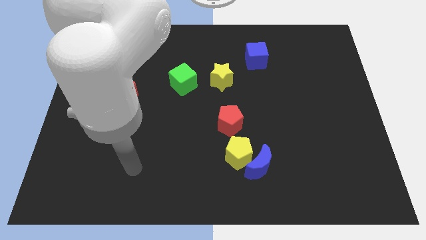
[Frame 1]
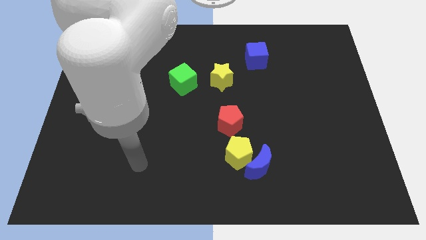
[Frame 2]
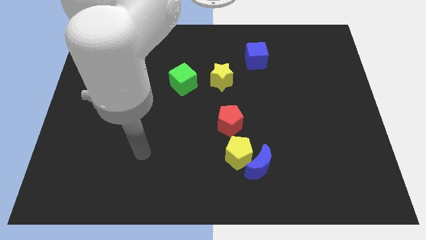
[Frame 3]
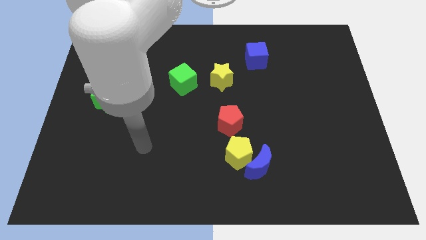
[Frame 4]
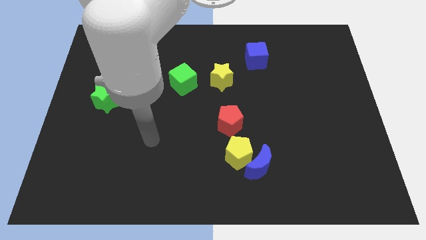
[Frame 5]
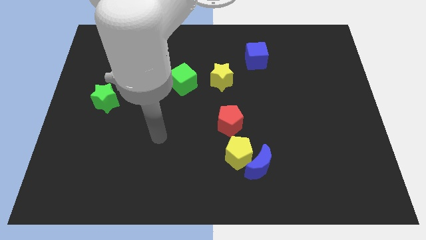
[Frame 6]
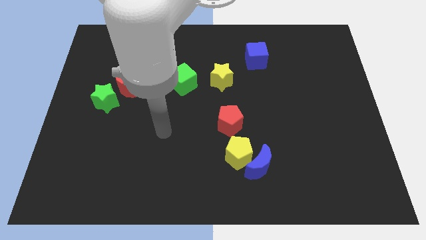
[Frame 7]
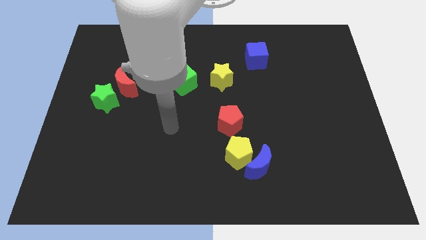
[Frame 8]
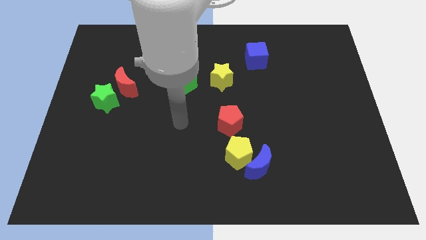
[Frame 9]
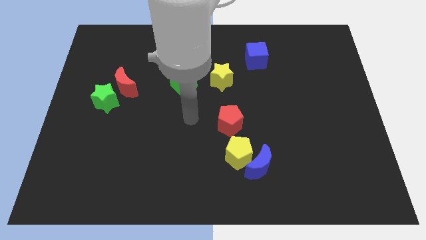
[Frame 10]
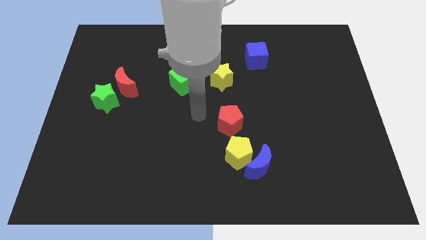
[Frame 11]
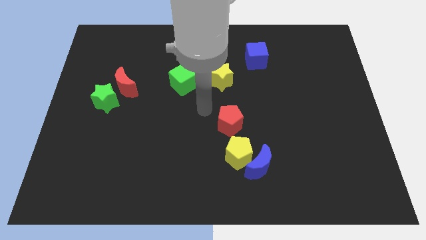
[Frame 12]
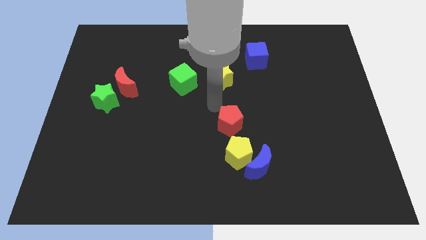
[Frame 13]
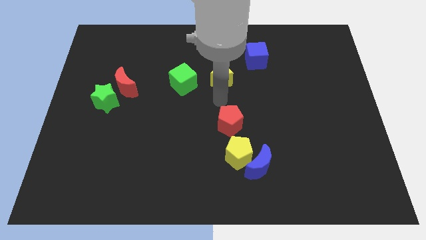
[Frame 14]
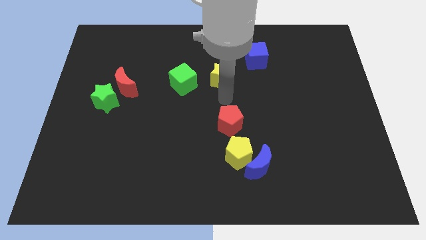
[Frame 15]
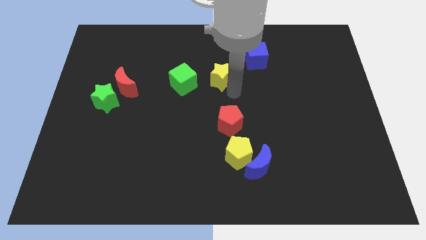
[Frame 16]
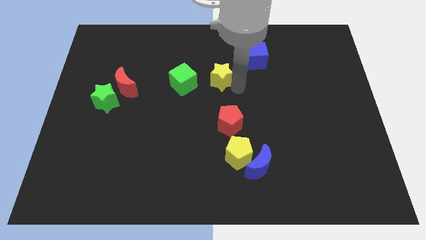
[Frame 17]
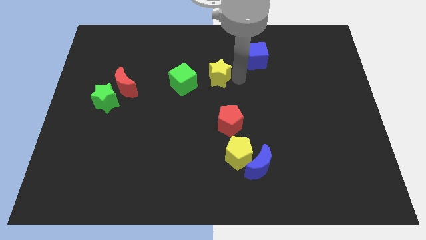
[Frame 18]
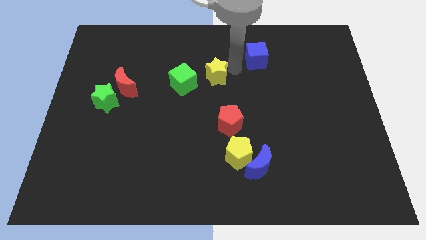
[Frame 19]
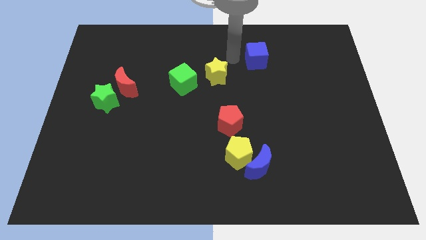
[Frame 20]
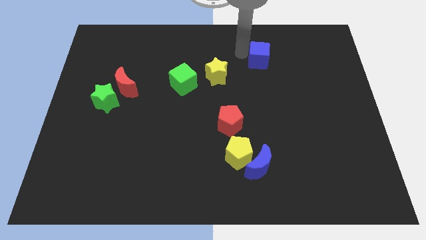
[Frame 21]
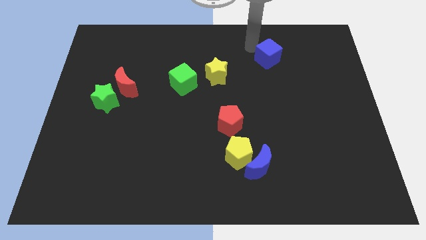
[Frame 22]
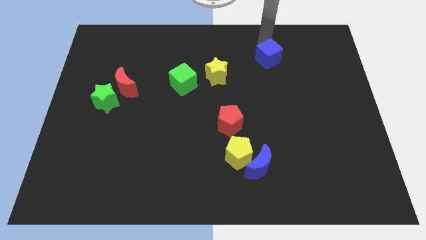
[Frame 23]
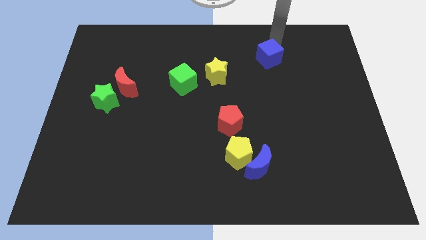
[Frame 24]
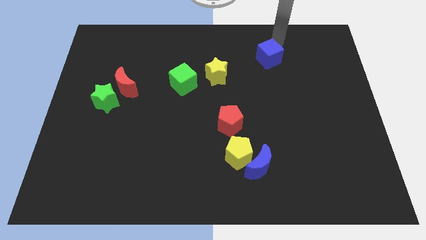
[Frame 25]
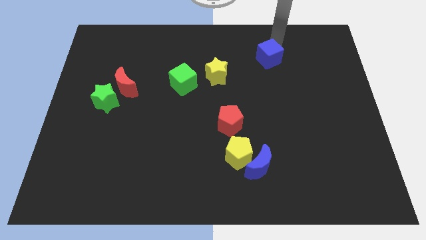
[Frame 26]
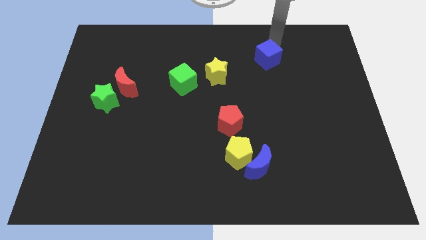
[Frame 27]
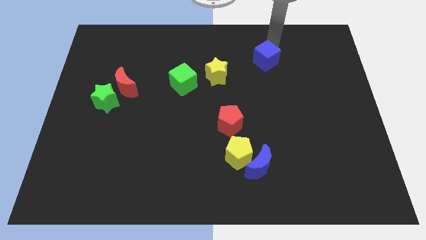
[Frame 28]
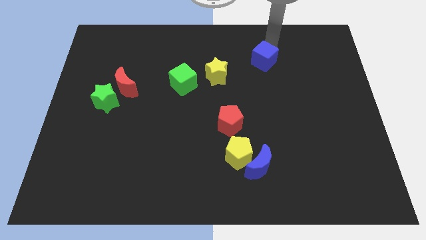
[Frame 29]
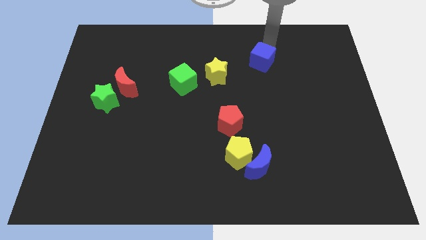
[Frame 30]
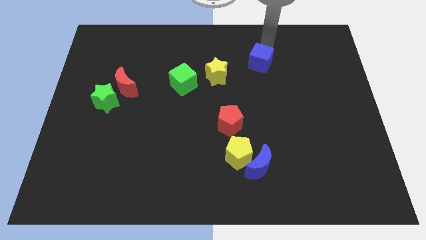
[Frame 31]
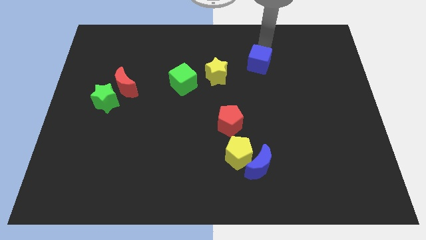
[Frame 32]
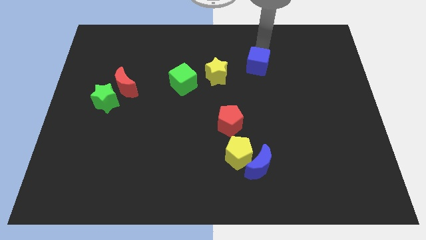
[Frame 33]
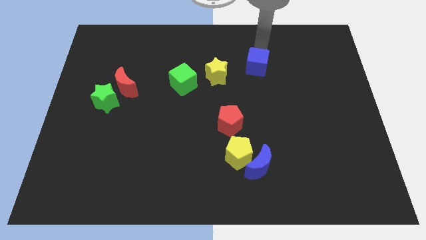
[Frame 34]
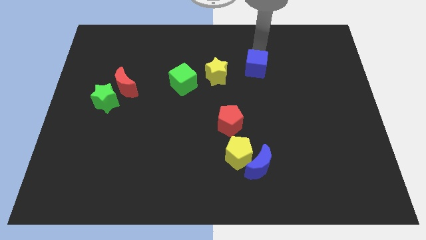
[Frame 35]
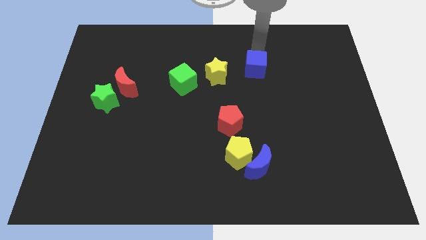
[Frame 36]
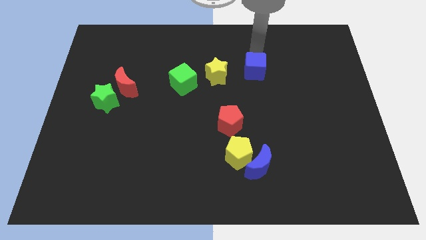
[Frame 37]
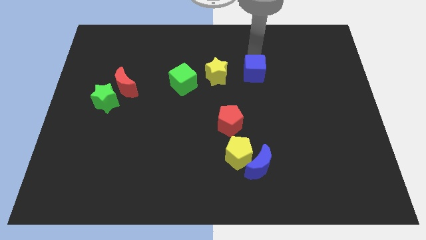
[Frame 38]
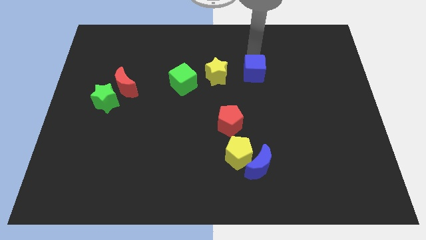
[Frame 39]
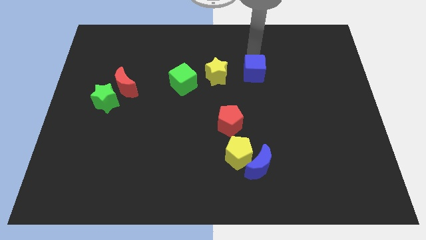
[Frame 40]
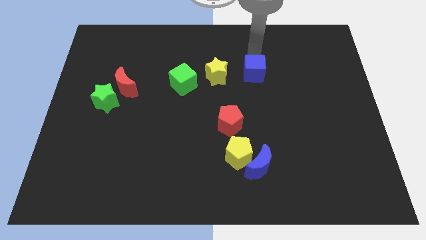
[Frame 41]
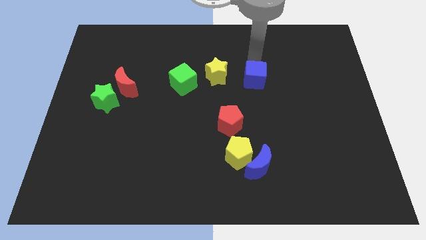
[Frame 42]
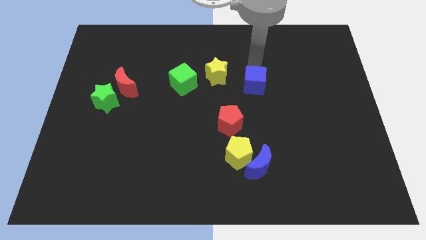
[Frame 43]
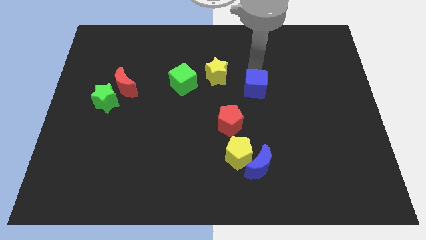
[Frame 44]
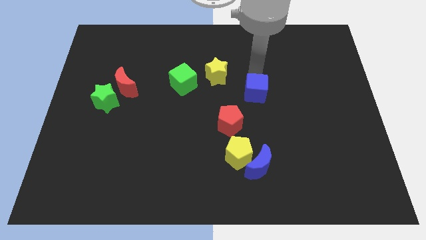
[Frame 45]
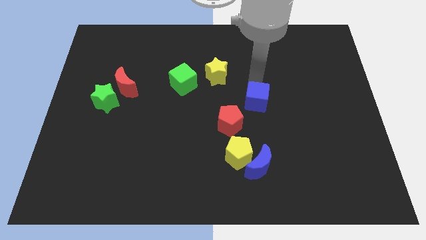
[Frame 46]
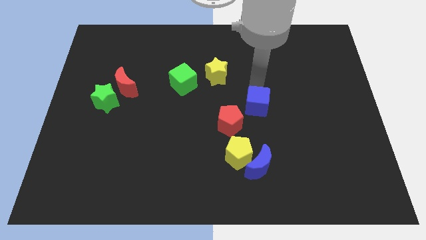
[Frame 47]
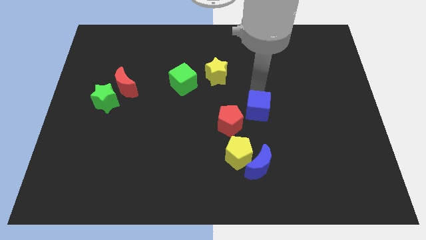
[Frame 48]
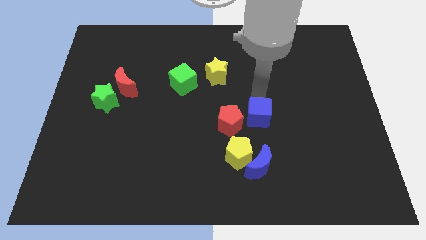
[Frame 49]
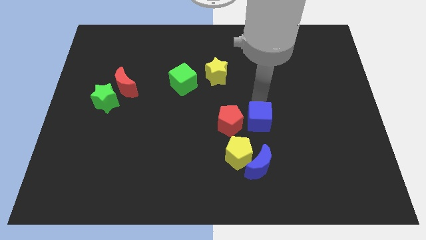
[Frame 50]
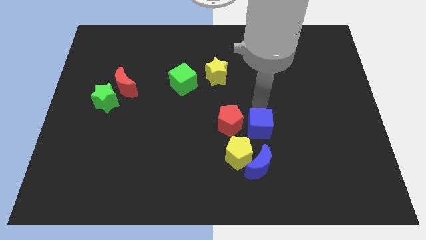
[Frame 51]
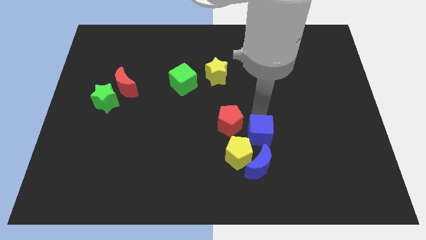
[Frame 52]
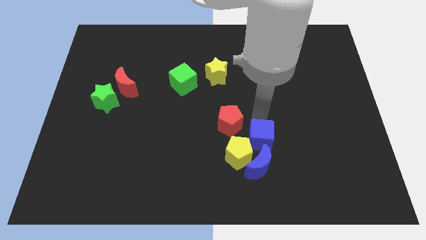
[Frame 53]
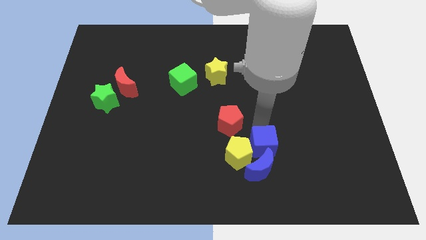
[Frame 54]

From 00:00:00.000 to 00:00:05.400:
move the blue cube to the blue moon

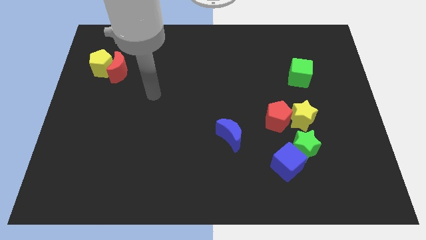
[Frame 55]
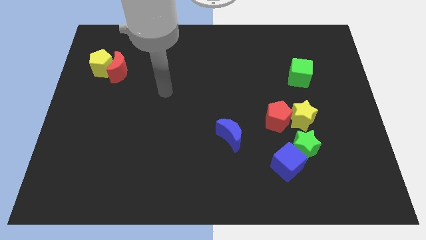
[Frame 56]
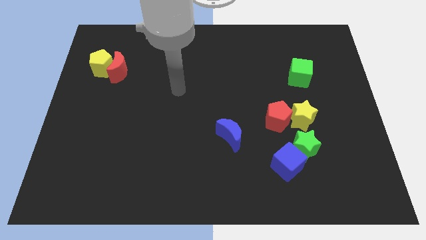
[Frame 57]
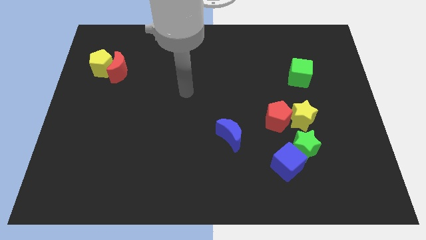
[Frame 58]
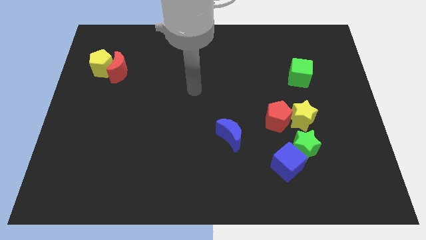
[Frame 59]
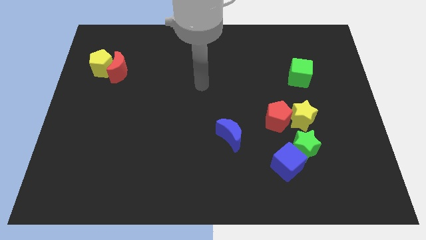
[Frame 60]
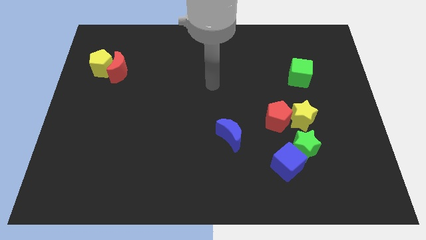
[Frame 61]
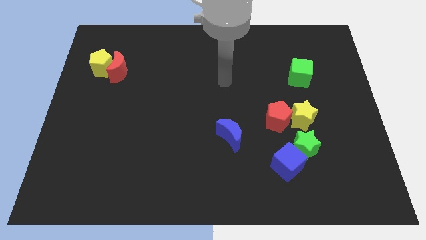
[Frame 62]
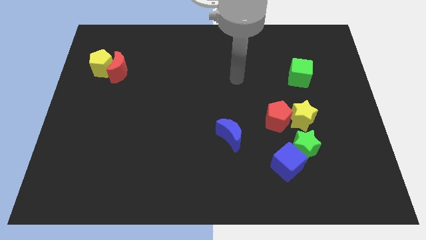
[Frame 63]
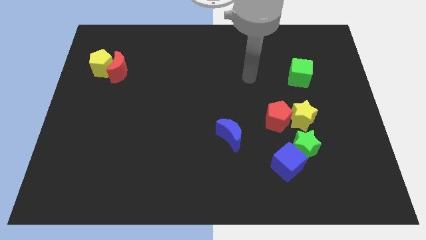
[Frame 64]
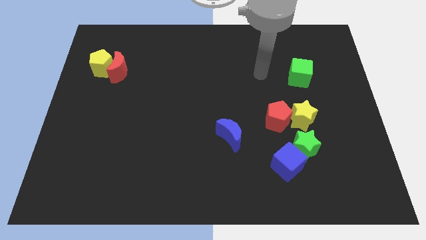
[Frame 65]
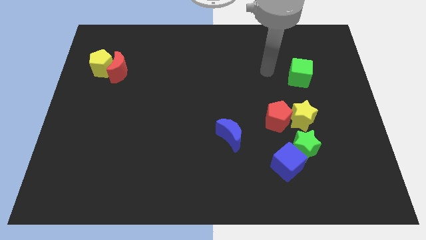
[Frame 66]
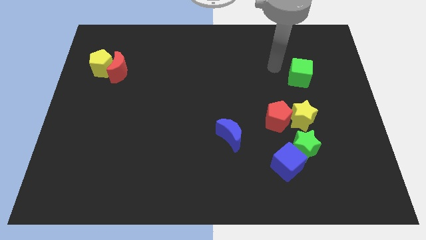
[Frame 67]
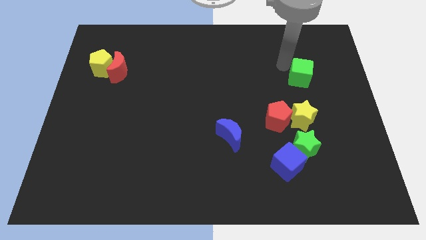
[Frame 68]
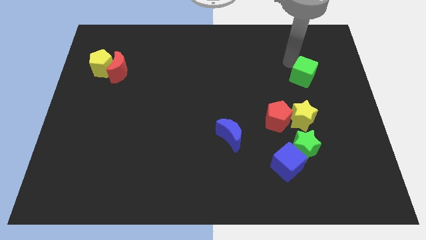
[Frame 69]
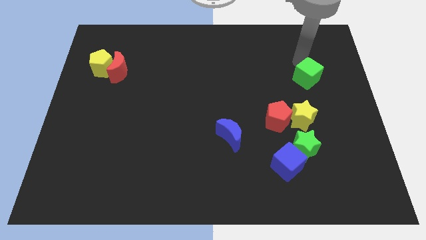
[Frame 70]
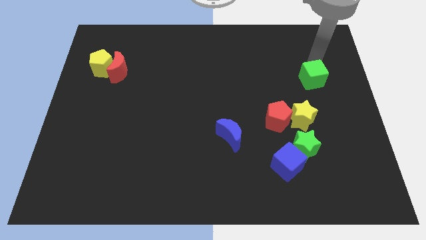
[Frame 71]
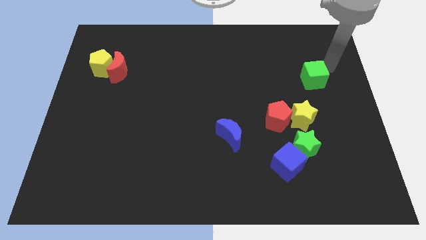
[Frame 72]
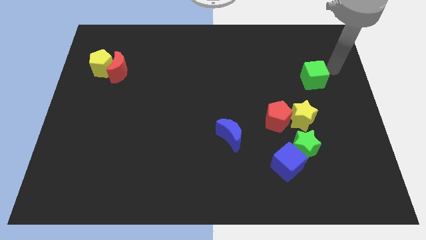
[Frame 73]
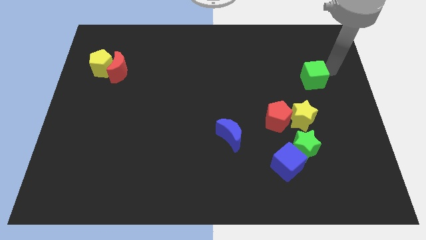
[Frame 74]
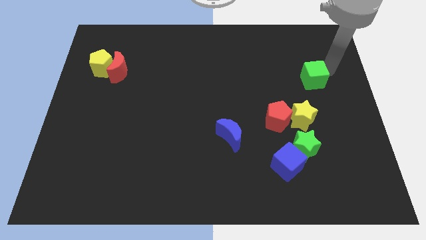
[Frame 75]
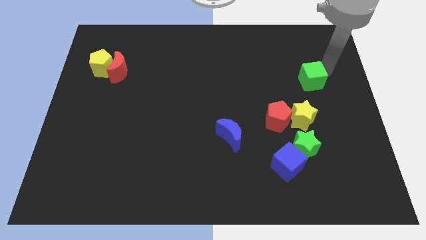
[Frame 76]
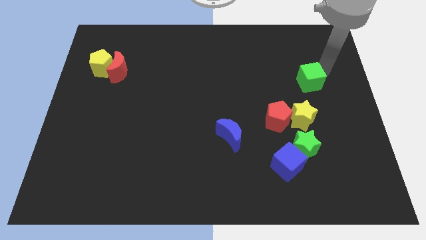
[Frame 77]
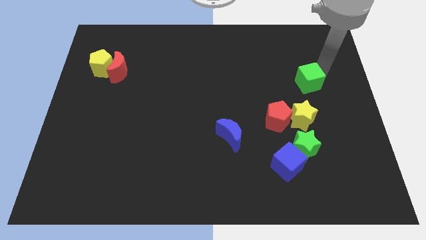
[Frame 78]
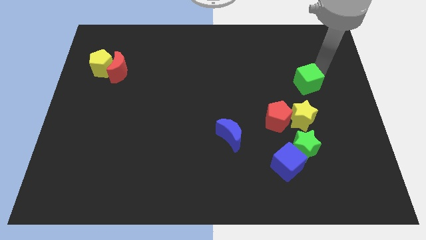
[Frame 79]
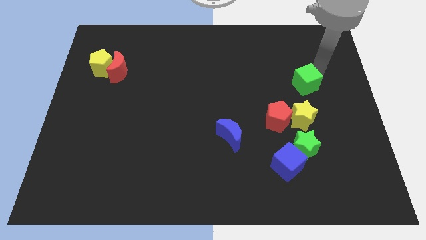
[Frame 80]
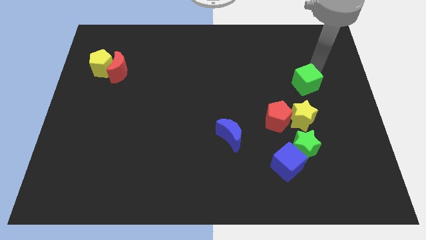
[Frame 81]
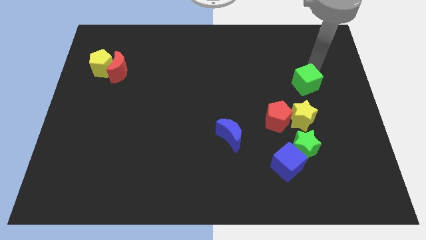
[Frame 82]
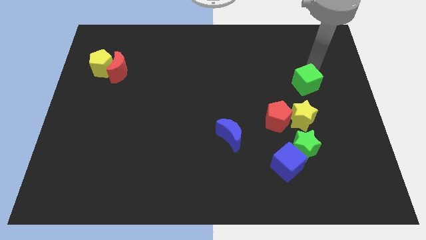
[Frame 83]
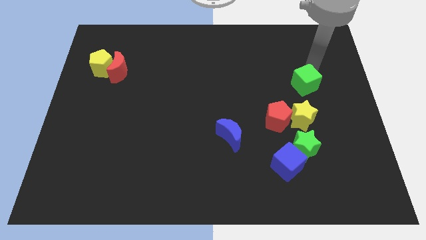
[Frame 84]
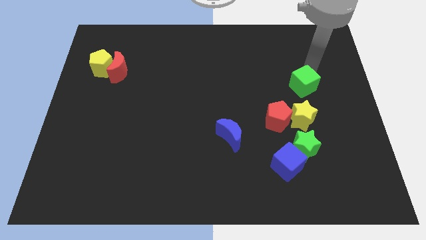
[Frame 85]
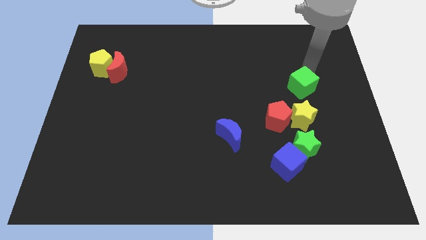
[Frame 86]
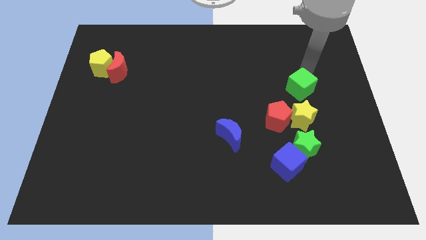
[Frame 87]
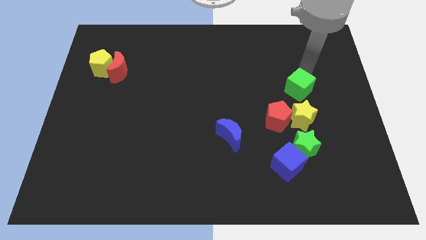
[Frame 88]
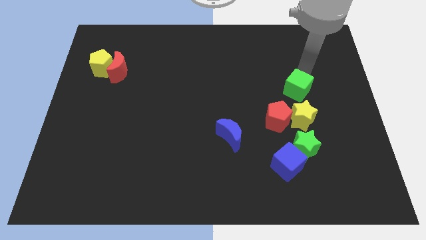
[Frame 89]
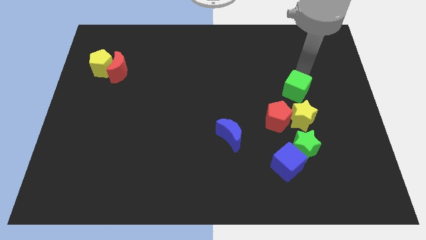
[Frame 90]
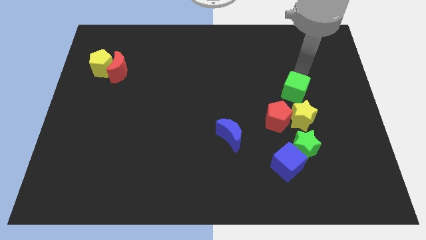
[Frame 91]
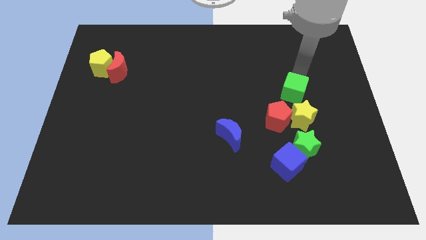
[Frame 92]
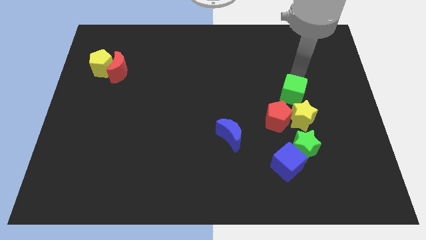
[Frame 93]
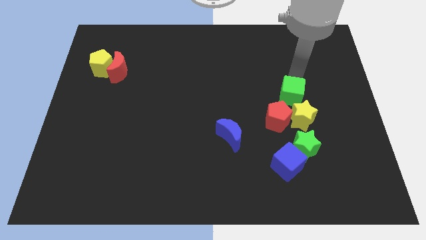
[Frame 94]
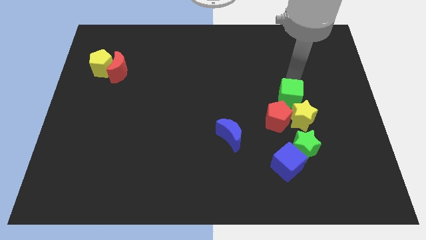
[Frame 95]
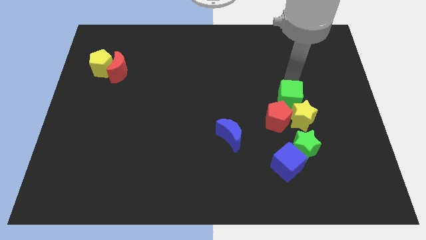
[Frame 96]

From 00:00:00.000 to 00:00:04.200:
slide the green cube next to the yellow star
